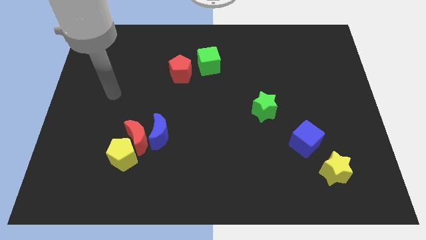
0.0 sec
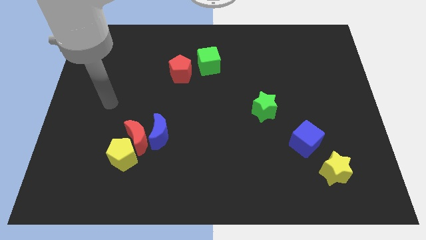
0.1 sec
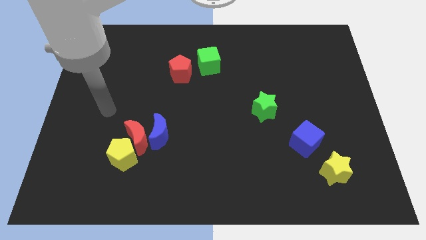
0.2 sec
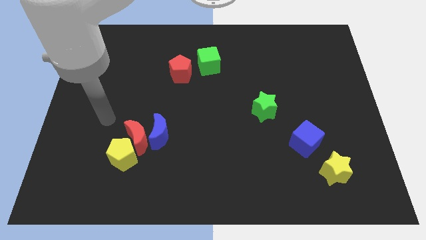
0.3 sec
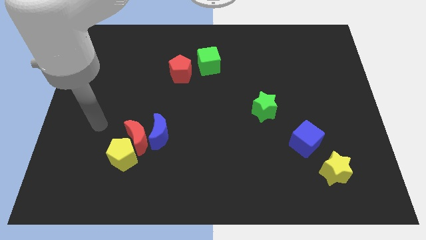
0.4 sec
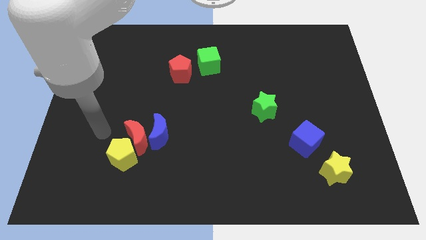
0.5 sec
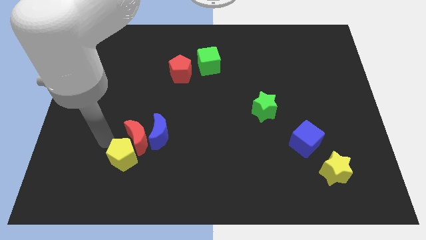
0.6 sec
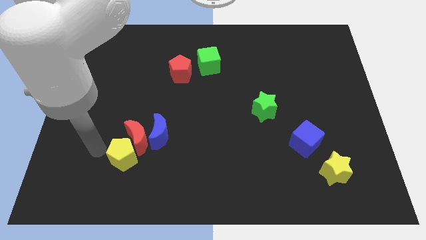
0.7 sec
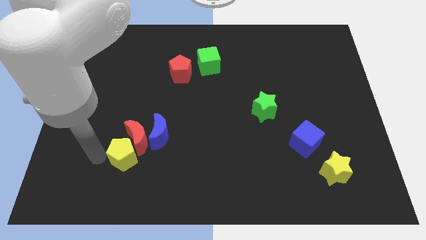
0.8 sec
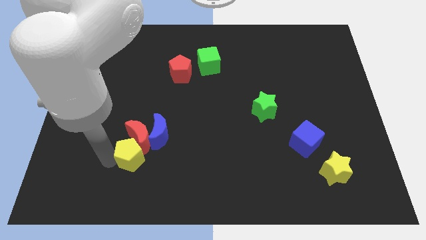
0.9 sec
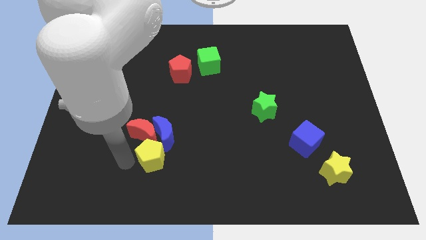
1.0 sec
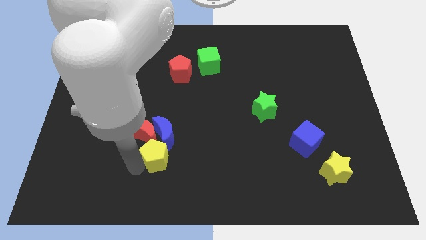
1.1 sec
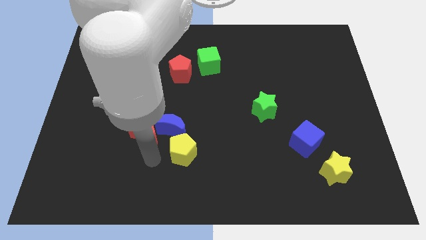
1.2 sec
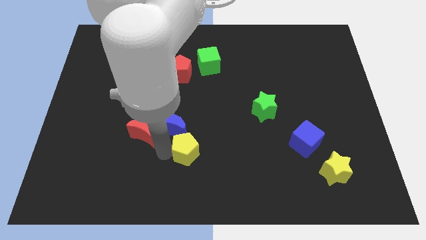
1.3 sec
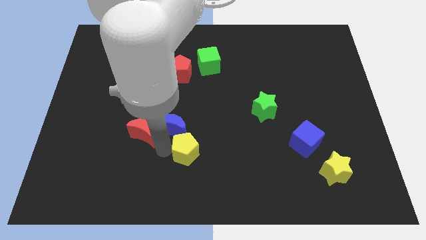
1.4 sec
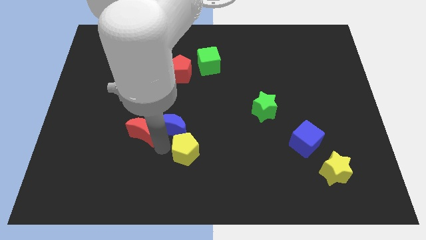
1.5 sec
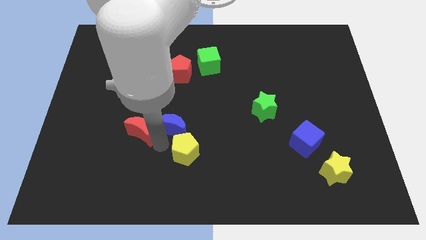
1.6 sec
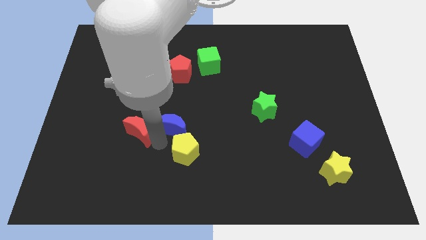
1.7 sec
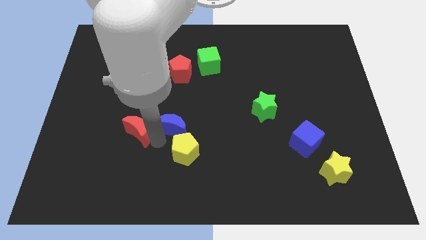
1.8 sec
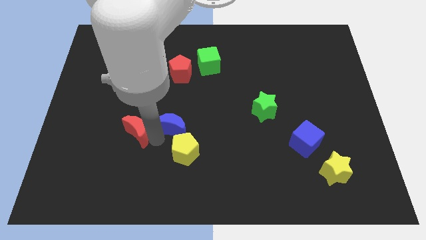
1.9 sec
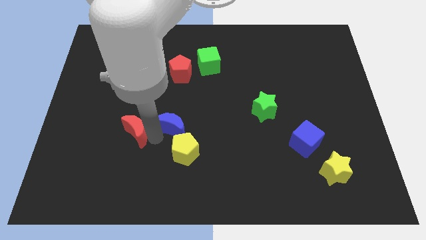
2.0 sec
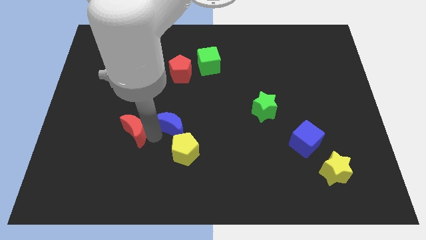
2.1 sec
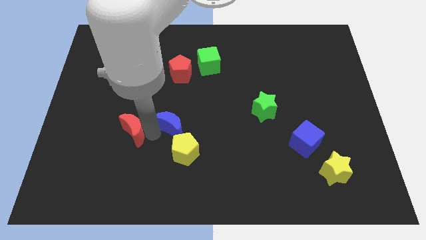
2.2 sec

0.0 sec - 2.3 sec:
move the red moon away from the blue moon and yellow pentagon

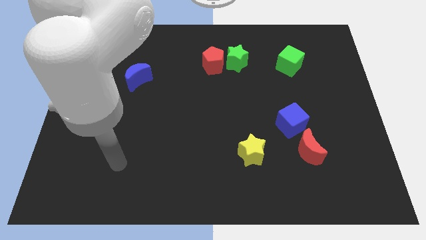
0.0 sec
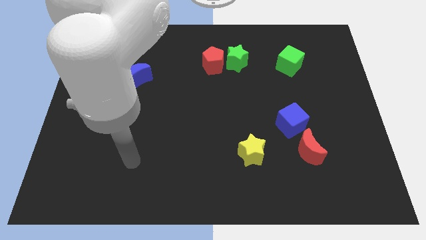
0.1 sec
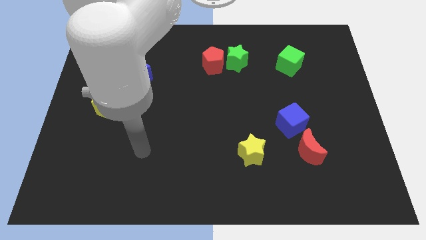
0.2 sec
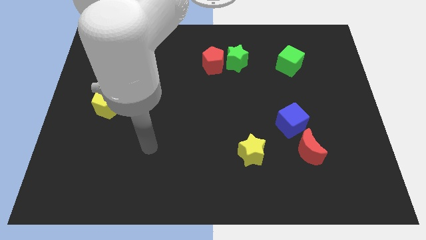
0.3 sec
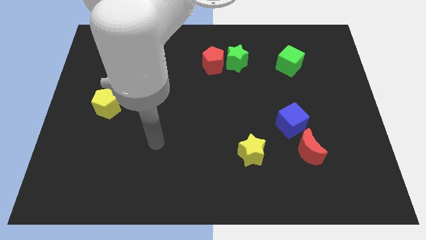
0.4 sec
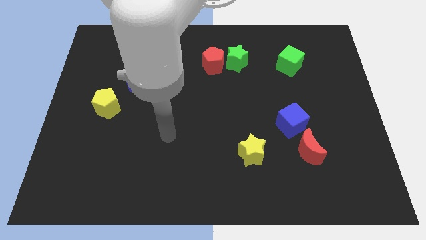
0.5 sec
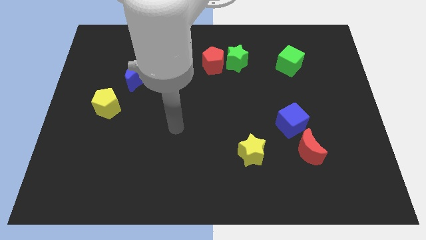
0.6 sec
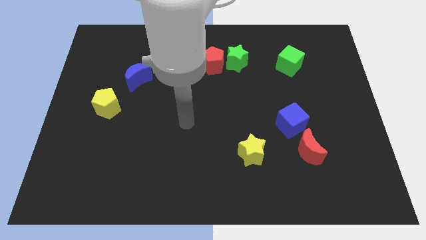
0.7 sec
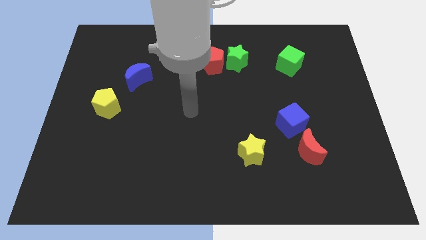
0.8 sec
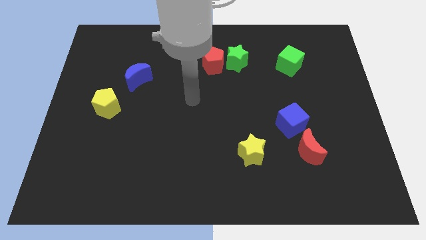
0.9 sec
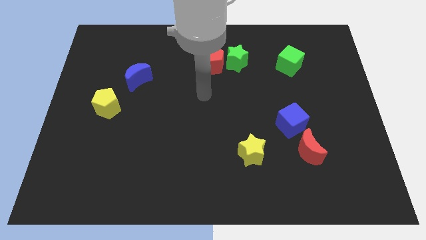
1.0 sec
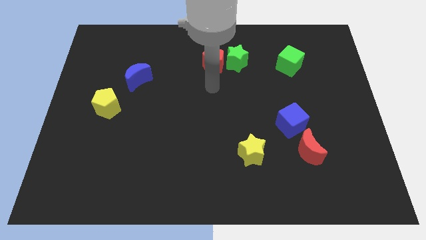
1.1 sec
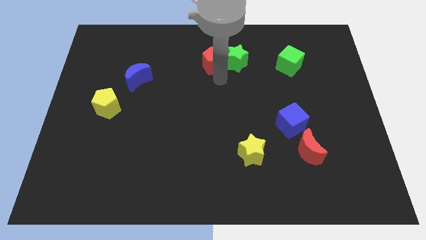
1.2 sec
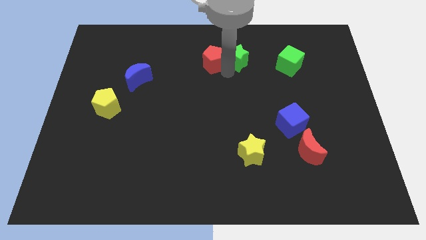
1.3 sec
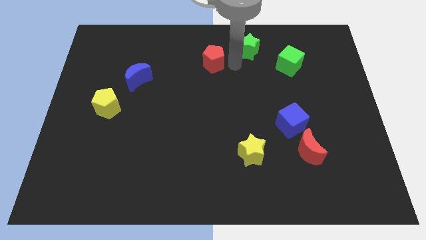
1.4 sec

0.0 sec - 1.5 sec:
separate the red pentagon from the green star

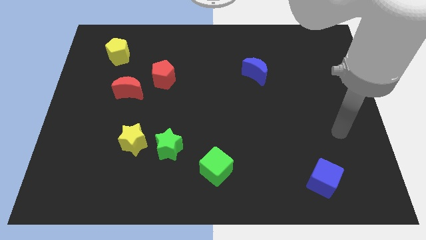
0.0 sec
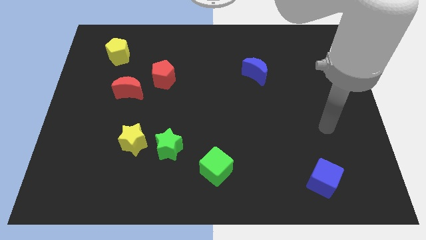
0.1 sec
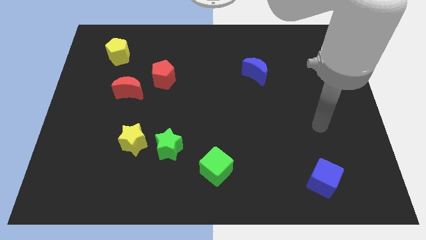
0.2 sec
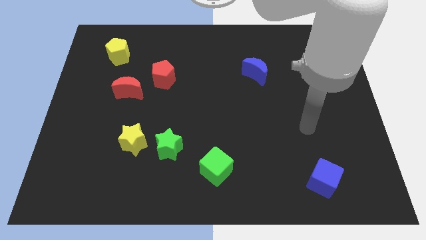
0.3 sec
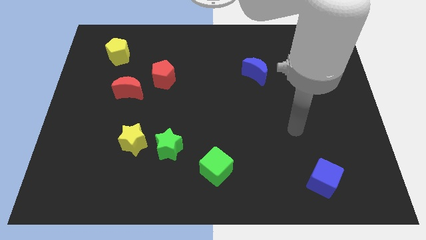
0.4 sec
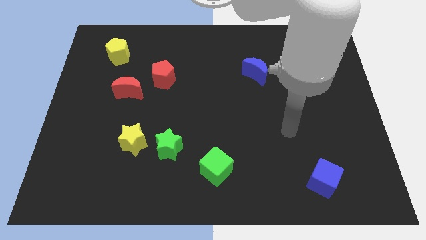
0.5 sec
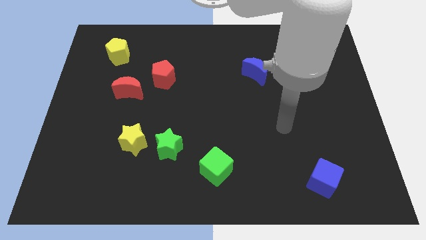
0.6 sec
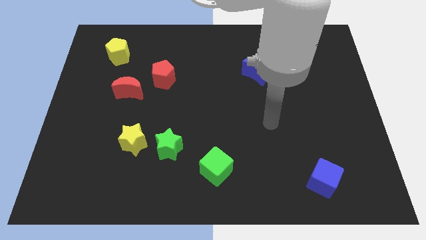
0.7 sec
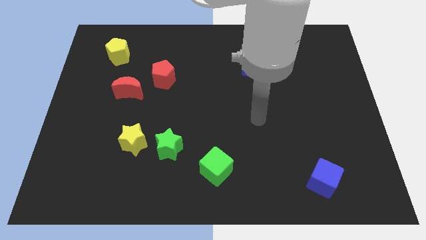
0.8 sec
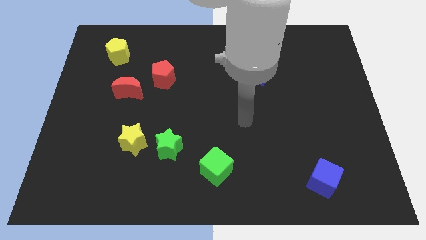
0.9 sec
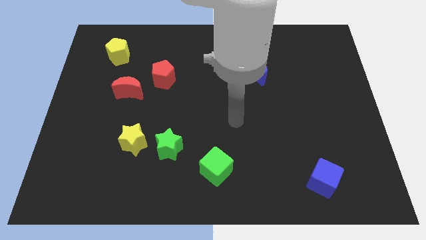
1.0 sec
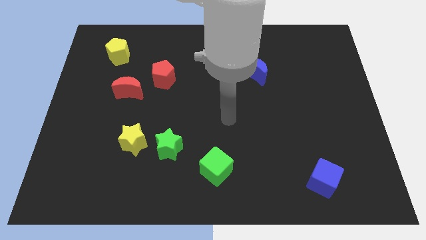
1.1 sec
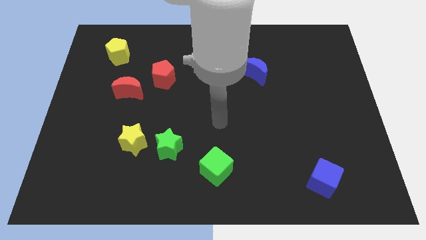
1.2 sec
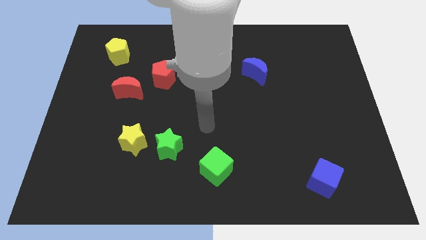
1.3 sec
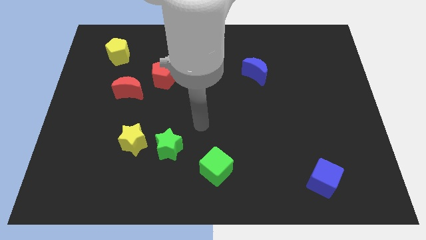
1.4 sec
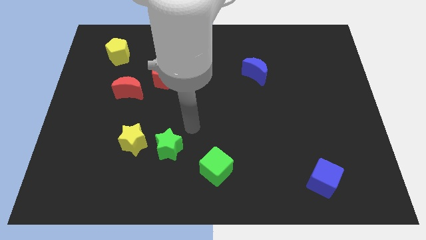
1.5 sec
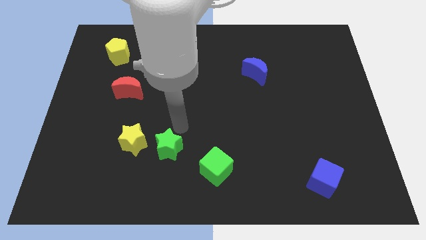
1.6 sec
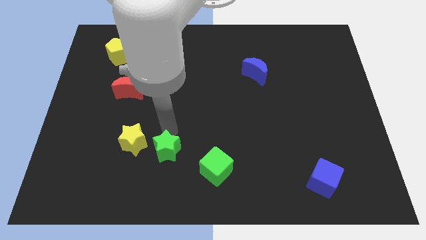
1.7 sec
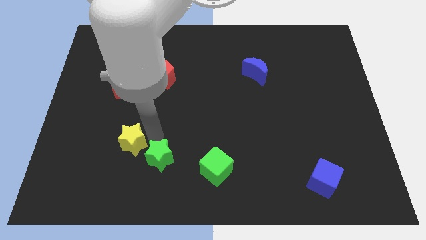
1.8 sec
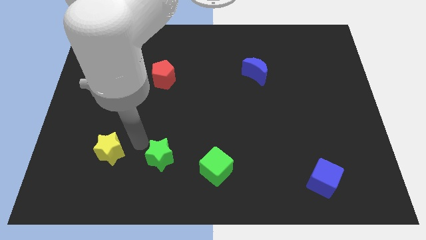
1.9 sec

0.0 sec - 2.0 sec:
separate the green star from the yellow star

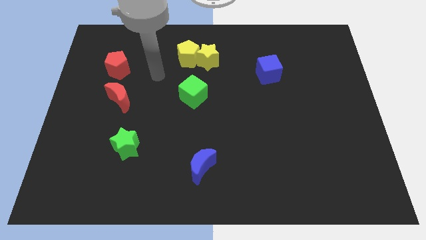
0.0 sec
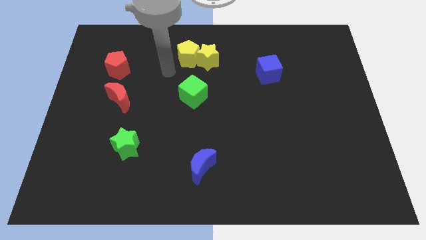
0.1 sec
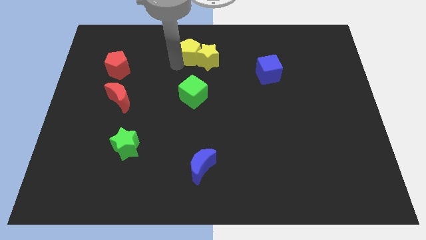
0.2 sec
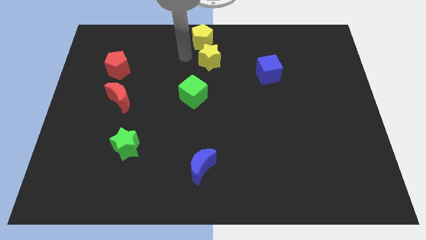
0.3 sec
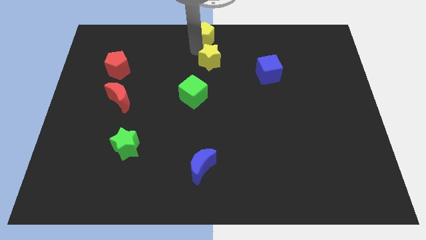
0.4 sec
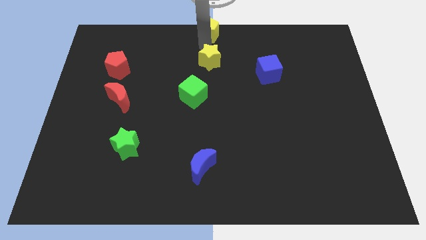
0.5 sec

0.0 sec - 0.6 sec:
move the yellow star away from the yellow pentagon

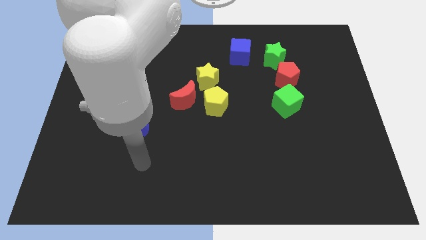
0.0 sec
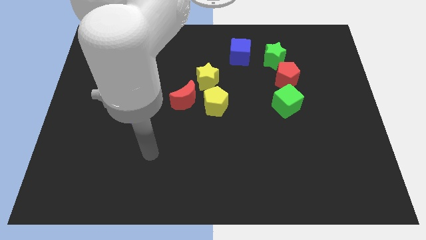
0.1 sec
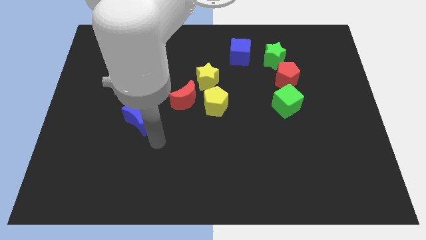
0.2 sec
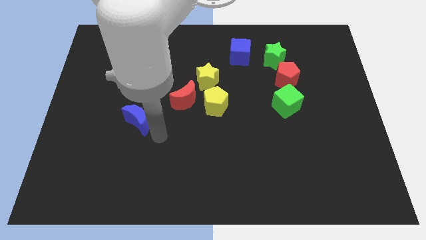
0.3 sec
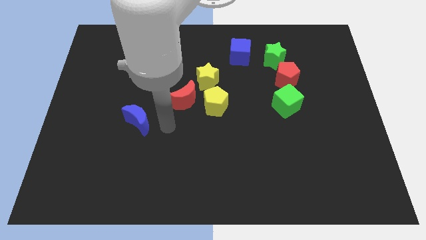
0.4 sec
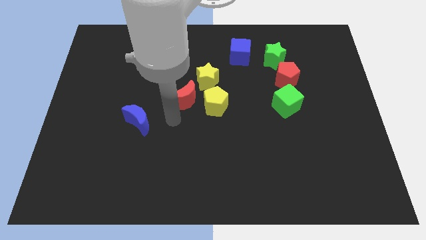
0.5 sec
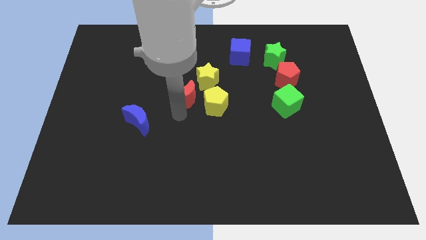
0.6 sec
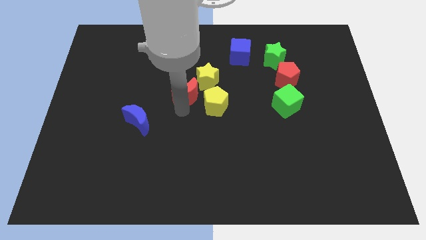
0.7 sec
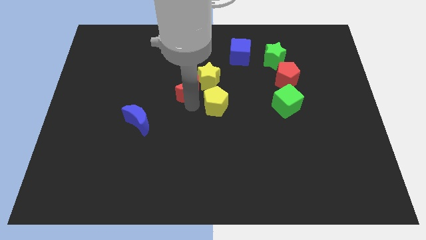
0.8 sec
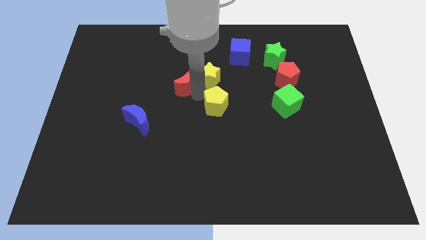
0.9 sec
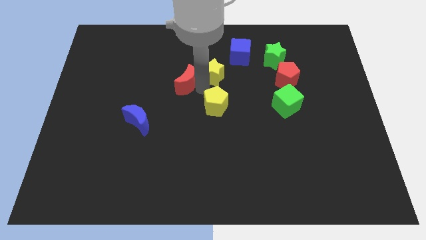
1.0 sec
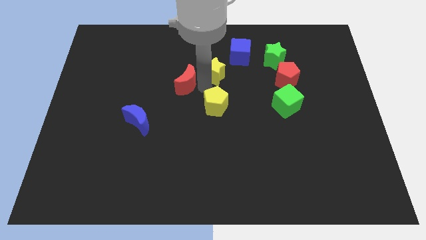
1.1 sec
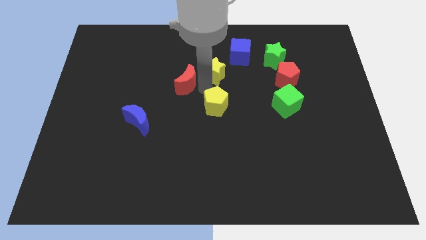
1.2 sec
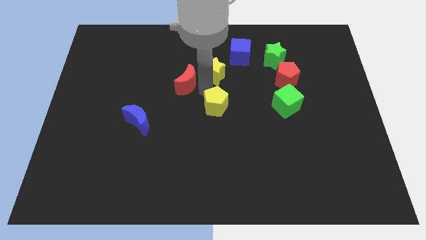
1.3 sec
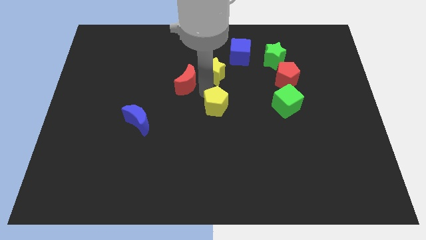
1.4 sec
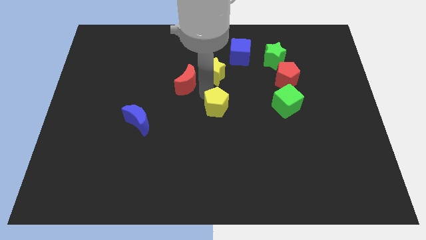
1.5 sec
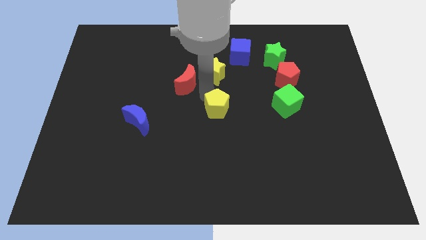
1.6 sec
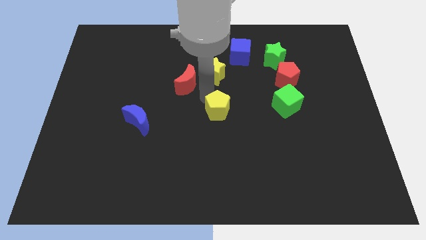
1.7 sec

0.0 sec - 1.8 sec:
pull the yellow pentagon apart from the red moon and yellow star

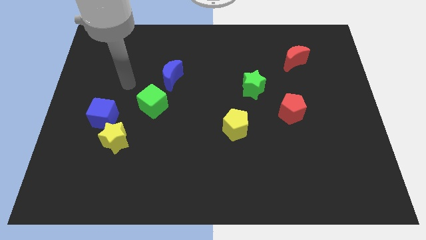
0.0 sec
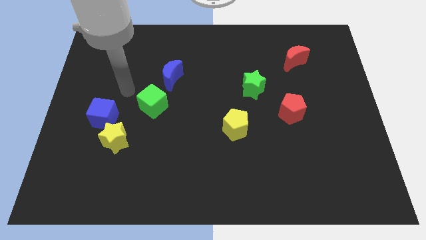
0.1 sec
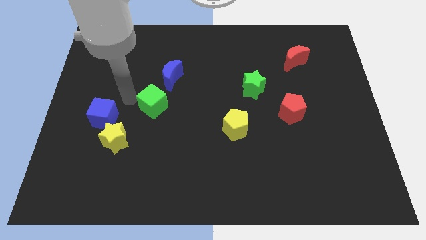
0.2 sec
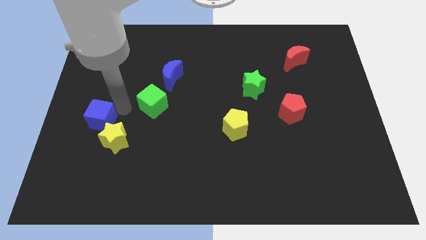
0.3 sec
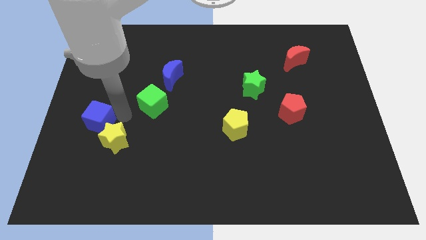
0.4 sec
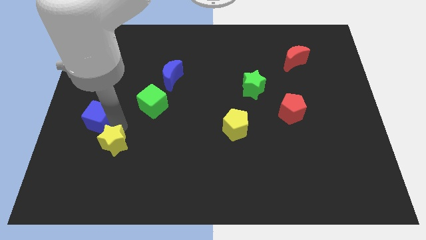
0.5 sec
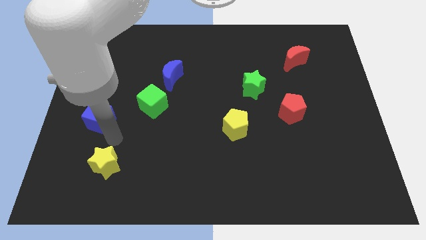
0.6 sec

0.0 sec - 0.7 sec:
pull the blue cube apart from the yellow star

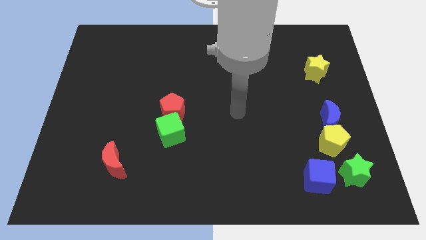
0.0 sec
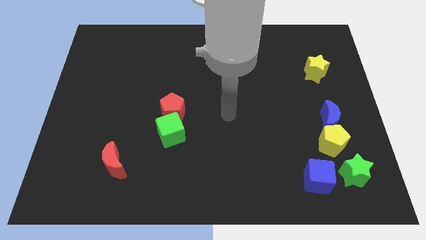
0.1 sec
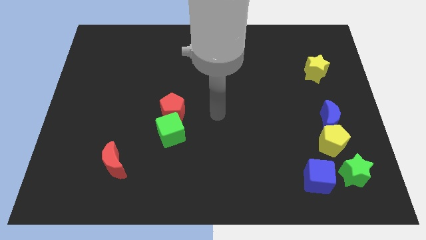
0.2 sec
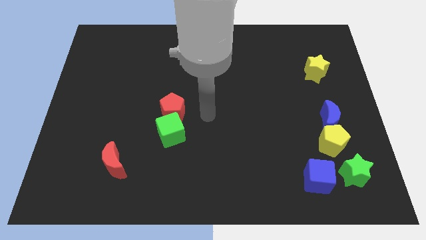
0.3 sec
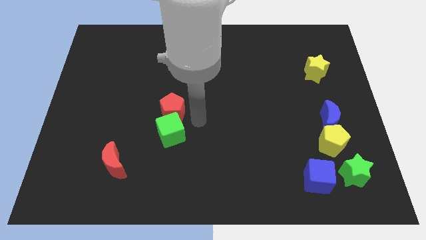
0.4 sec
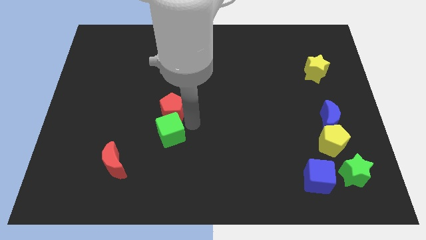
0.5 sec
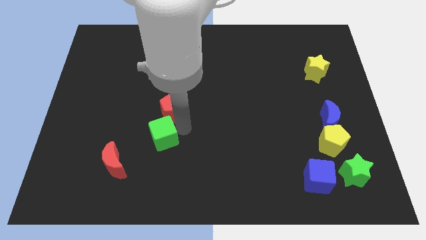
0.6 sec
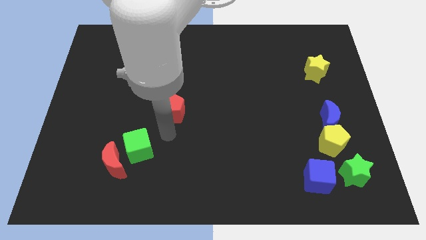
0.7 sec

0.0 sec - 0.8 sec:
move the red pentagon away from the green cube
